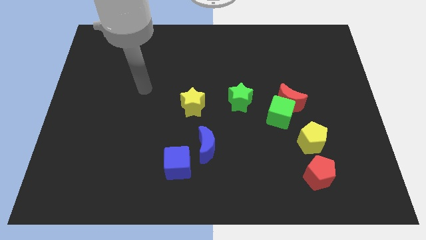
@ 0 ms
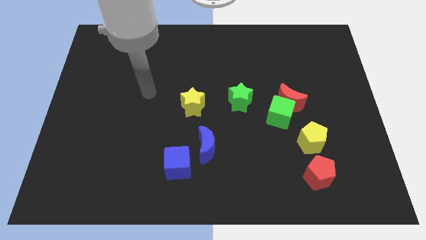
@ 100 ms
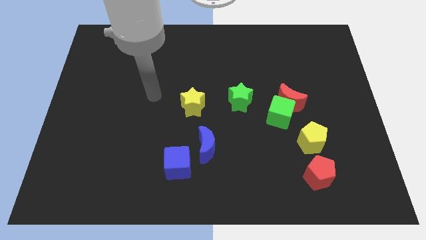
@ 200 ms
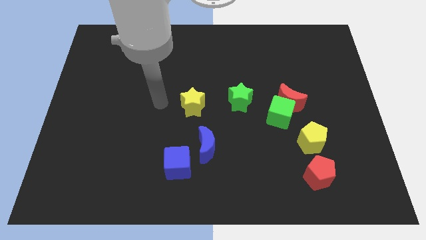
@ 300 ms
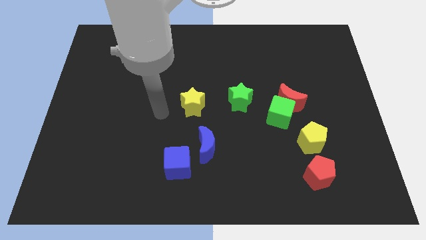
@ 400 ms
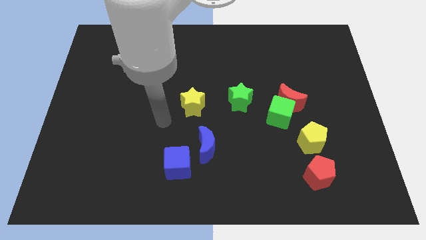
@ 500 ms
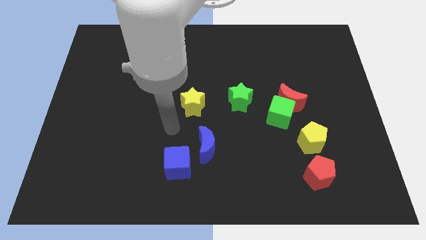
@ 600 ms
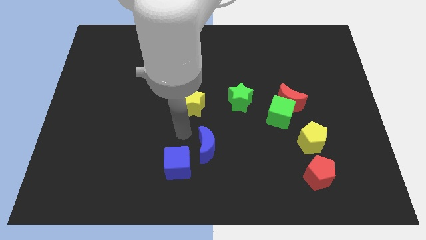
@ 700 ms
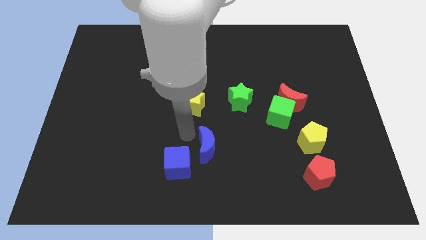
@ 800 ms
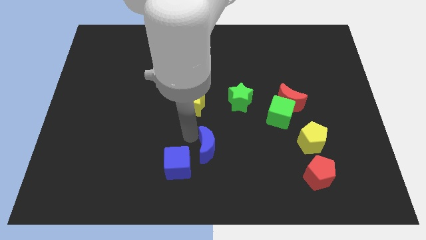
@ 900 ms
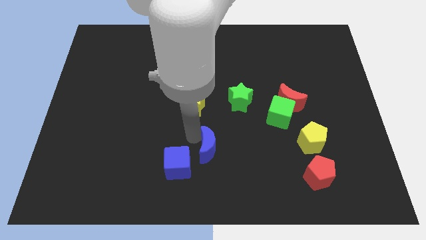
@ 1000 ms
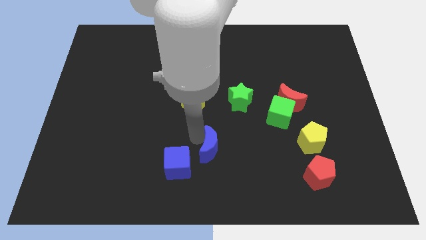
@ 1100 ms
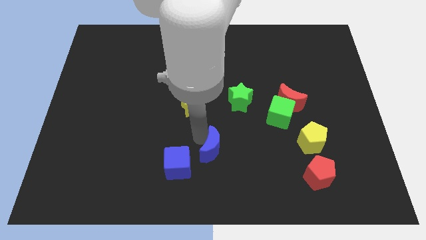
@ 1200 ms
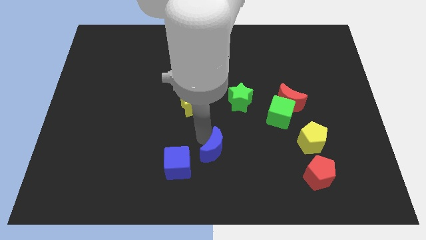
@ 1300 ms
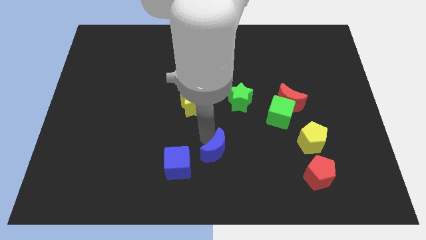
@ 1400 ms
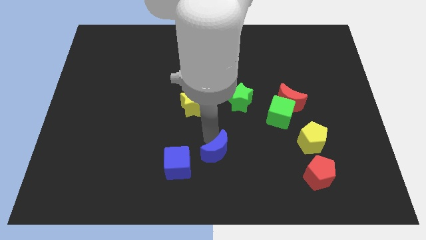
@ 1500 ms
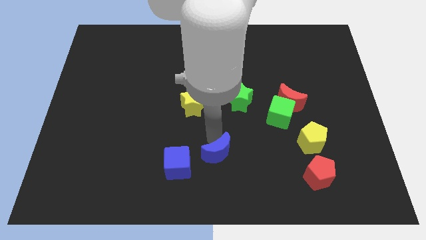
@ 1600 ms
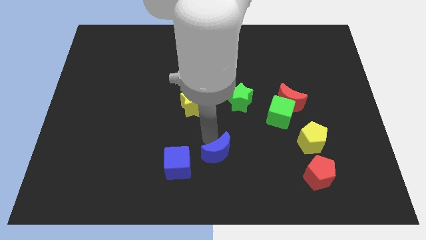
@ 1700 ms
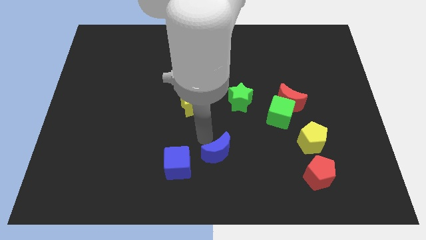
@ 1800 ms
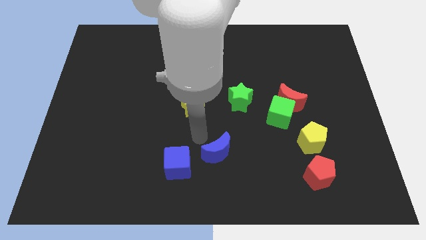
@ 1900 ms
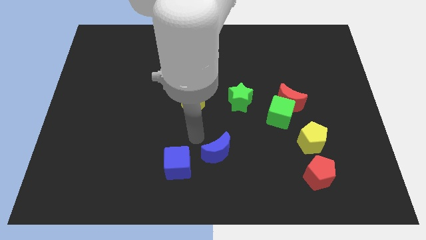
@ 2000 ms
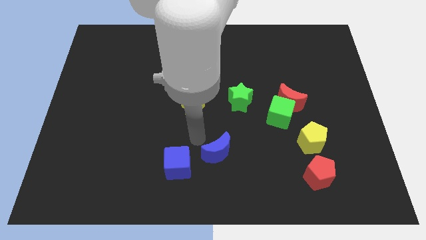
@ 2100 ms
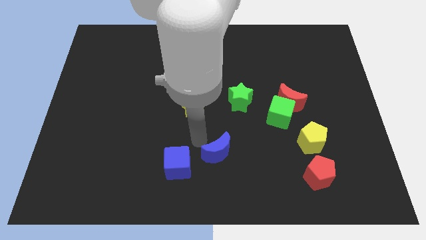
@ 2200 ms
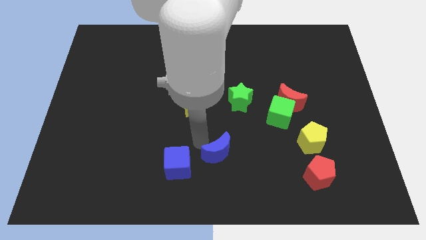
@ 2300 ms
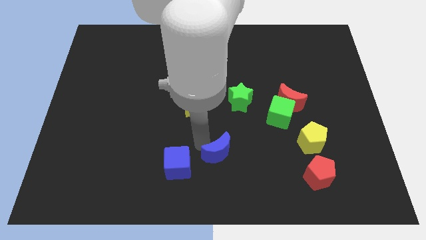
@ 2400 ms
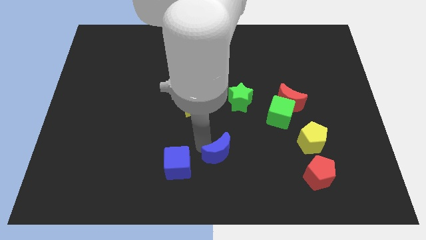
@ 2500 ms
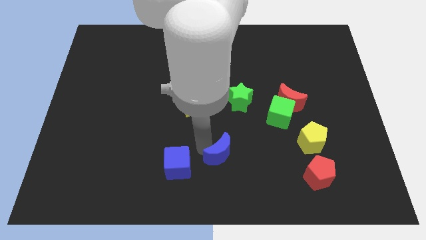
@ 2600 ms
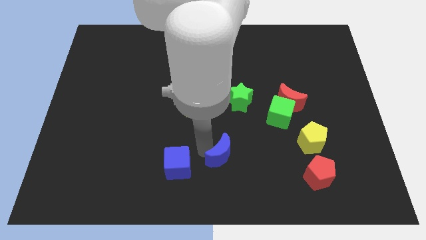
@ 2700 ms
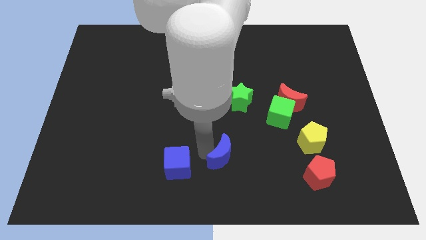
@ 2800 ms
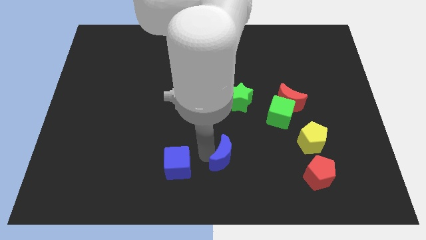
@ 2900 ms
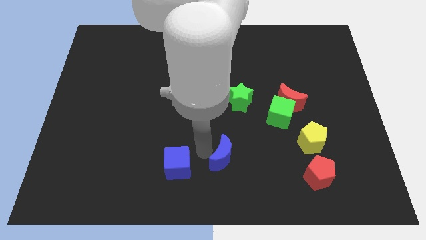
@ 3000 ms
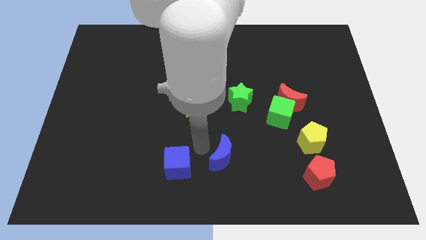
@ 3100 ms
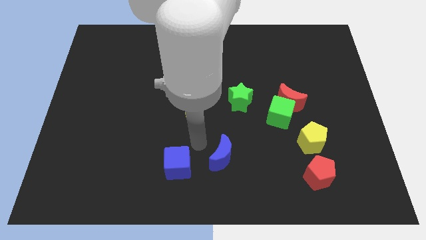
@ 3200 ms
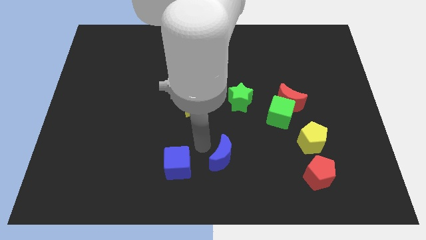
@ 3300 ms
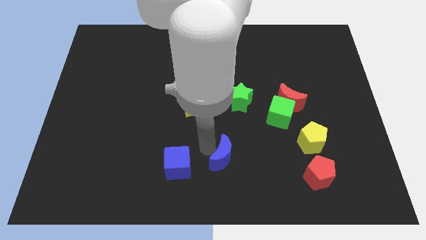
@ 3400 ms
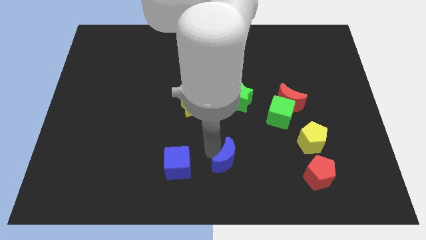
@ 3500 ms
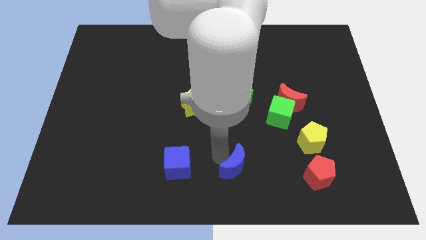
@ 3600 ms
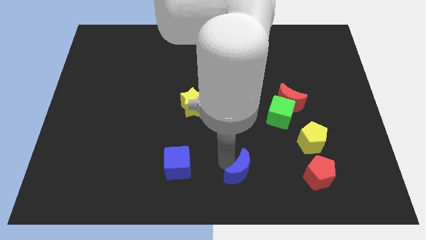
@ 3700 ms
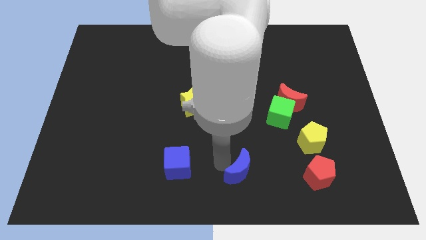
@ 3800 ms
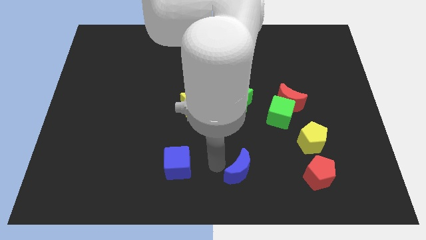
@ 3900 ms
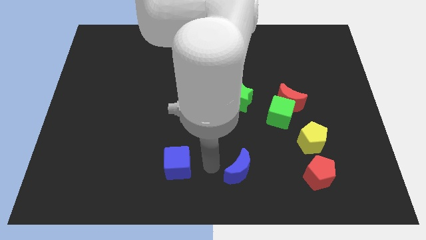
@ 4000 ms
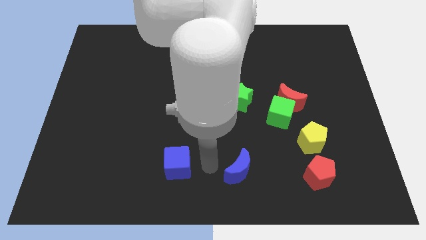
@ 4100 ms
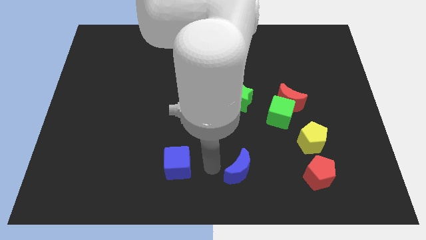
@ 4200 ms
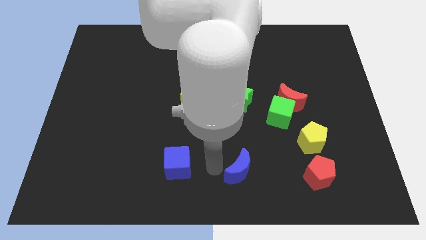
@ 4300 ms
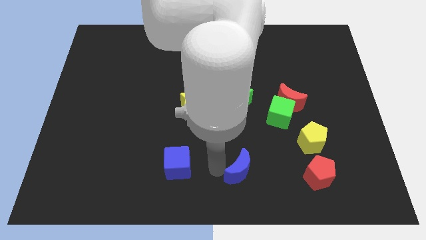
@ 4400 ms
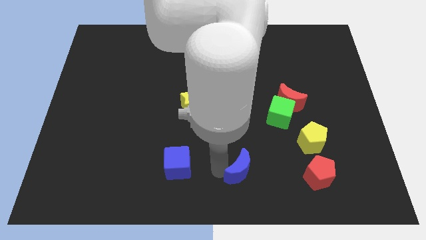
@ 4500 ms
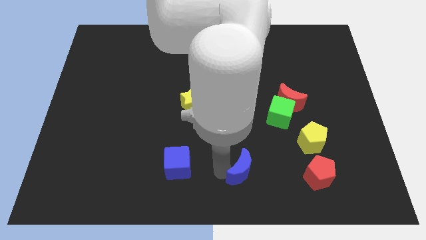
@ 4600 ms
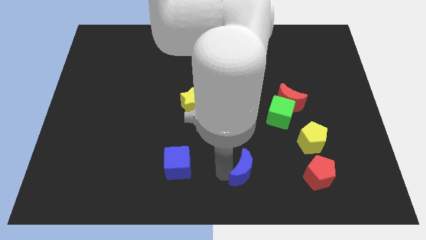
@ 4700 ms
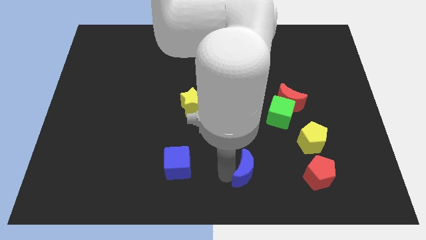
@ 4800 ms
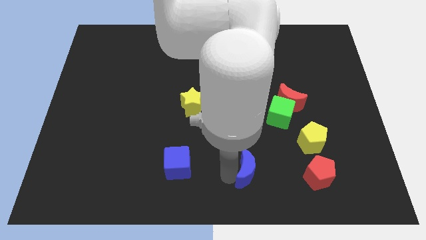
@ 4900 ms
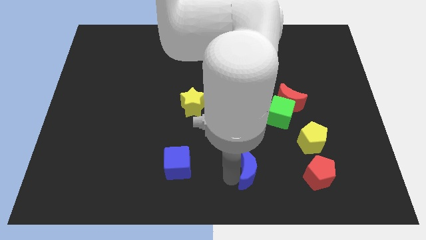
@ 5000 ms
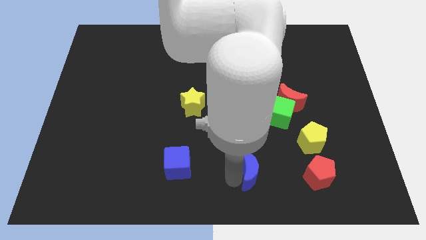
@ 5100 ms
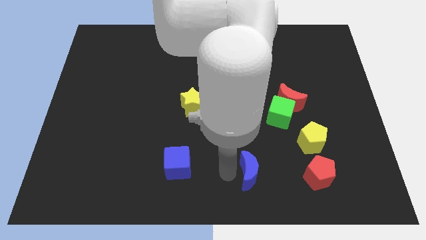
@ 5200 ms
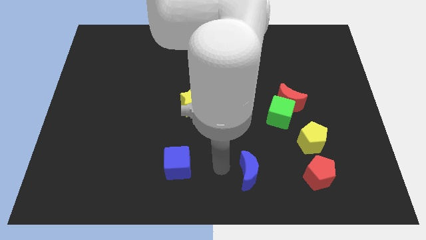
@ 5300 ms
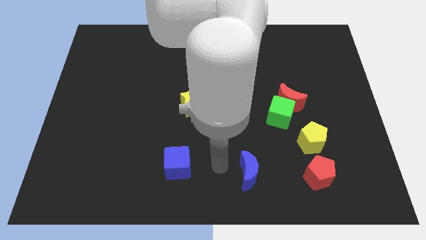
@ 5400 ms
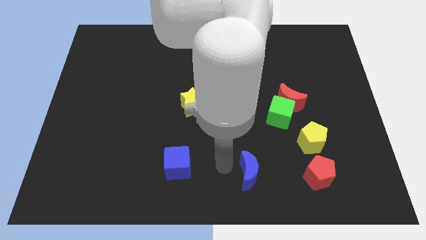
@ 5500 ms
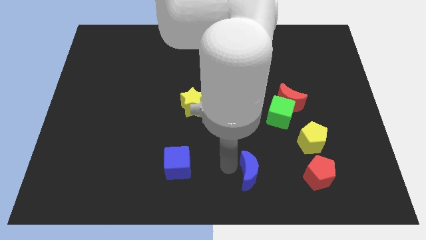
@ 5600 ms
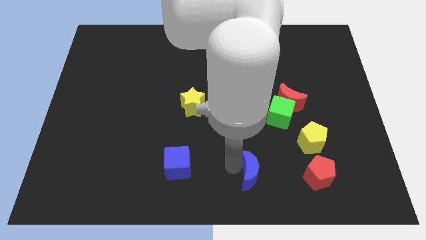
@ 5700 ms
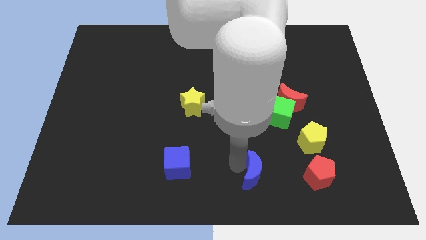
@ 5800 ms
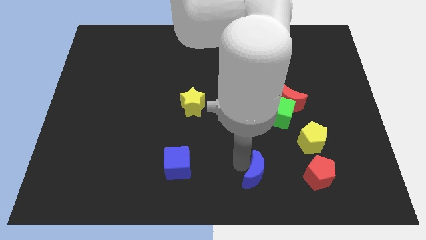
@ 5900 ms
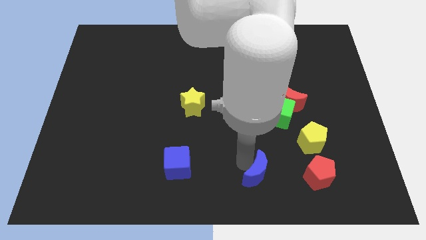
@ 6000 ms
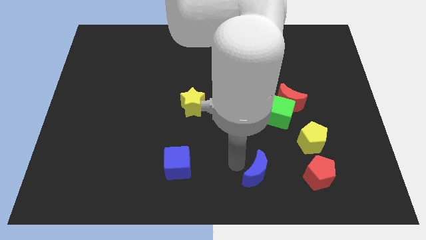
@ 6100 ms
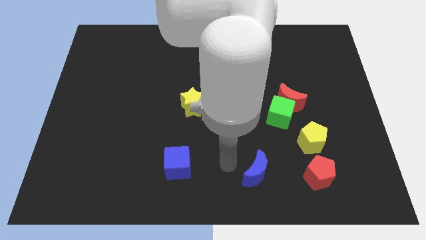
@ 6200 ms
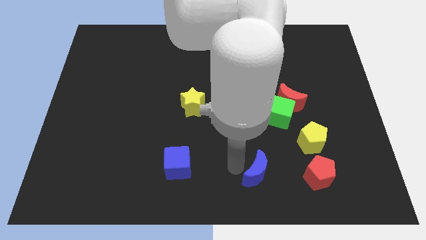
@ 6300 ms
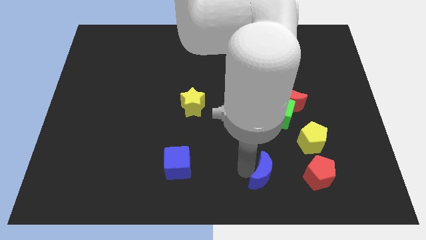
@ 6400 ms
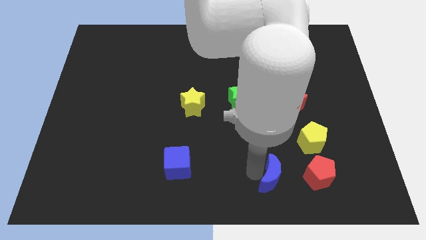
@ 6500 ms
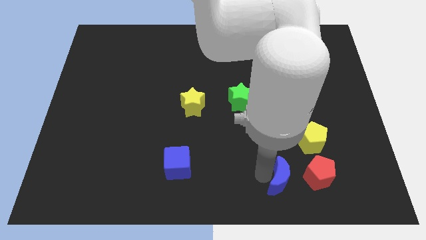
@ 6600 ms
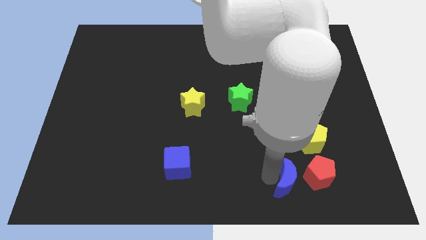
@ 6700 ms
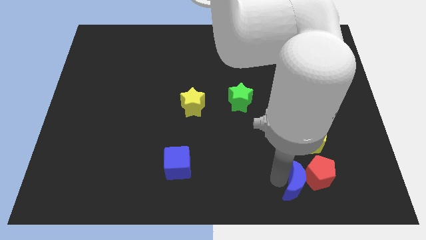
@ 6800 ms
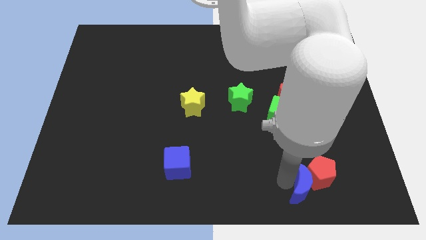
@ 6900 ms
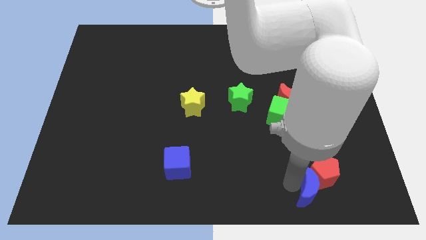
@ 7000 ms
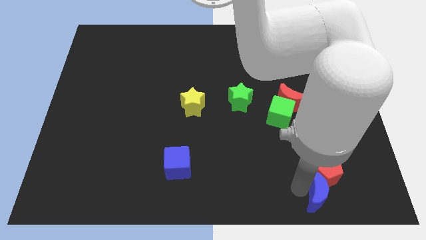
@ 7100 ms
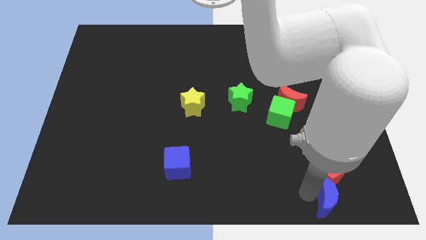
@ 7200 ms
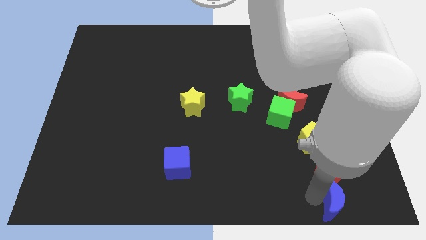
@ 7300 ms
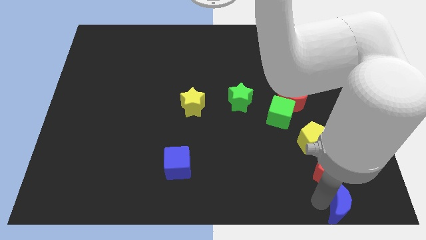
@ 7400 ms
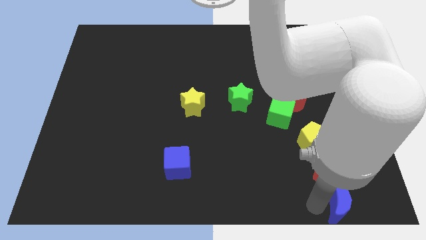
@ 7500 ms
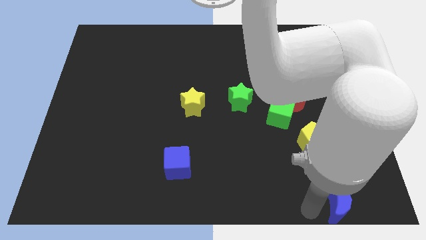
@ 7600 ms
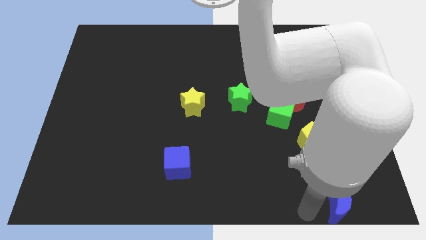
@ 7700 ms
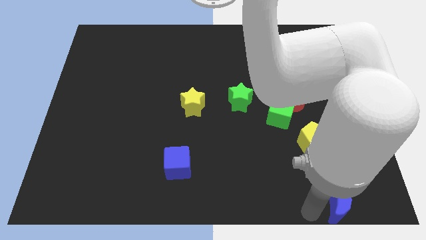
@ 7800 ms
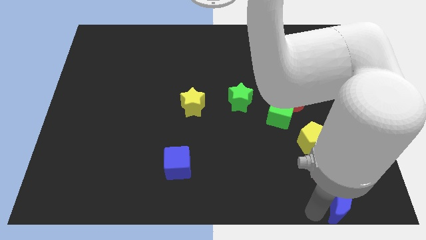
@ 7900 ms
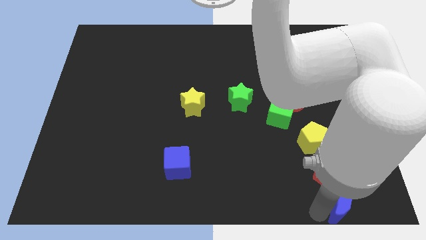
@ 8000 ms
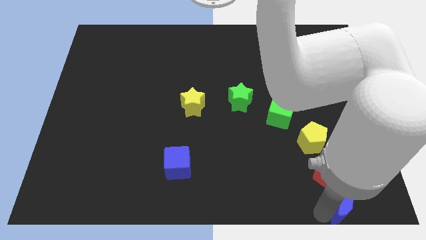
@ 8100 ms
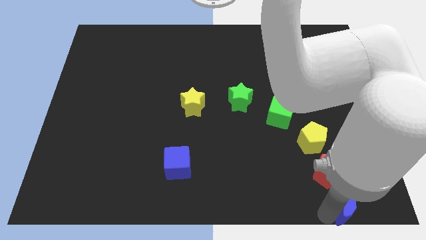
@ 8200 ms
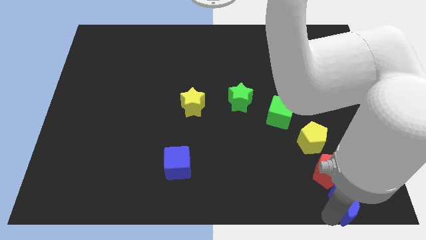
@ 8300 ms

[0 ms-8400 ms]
move the blue moon to the bottom right corner
